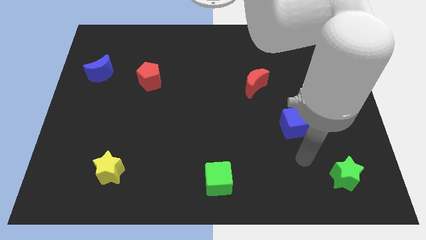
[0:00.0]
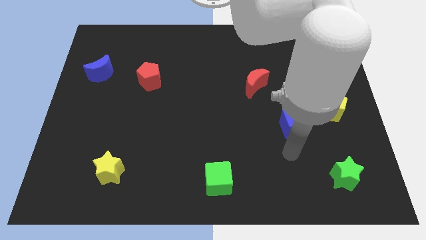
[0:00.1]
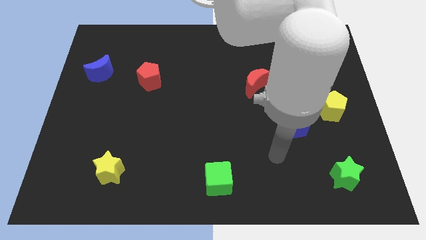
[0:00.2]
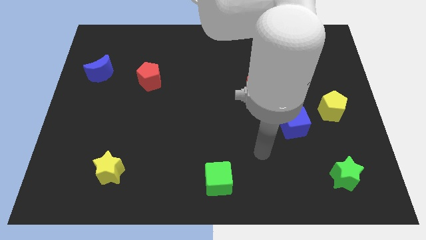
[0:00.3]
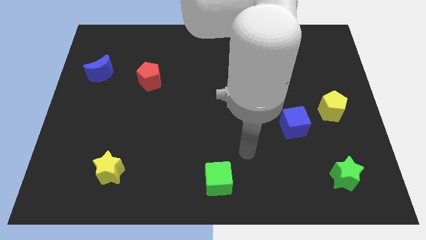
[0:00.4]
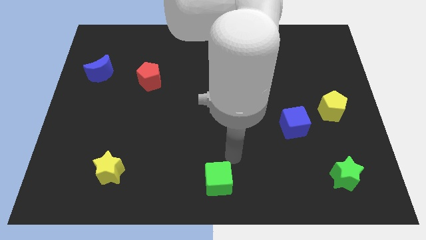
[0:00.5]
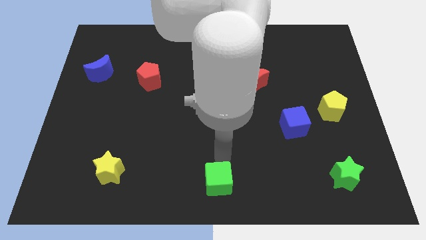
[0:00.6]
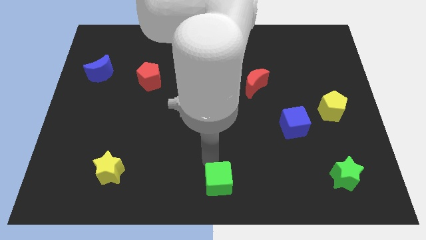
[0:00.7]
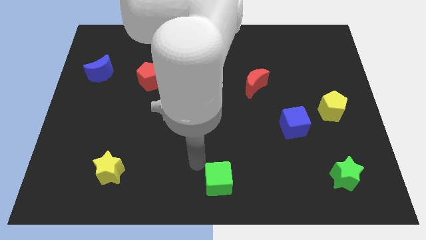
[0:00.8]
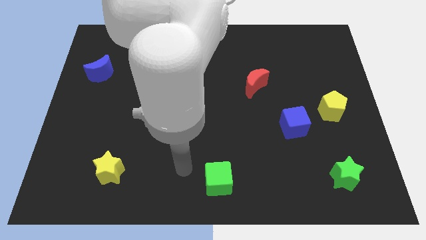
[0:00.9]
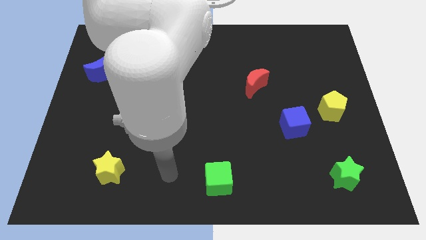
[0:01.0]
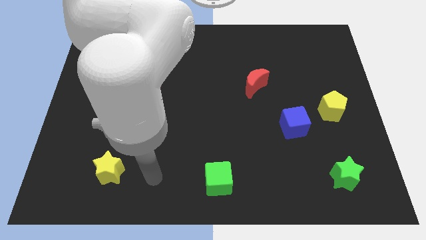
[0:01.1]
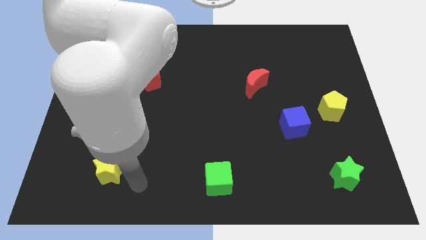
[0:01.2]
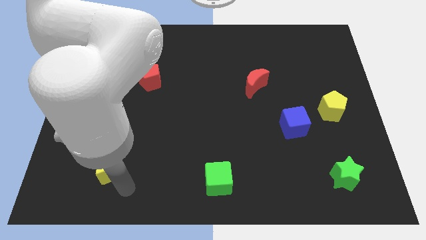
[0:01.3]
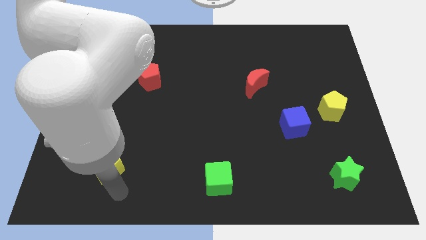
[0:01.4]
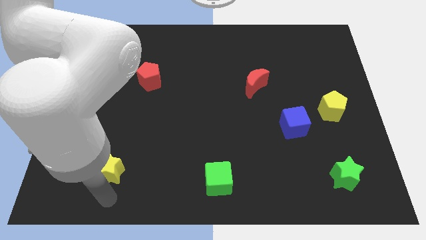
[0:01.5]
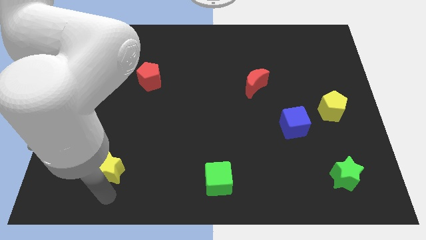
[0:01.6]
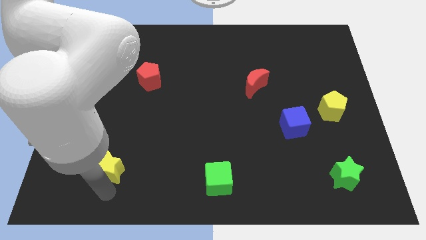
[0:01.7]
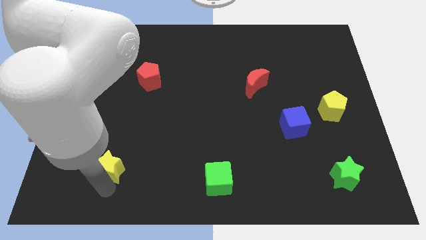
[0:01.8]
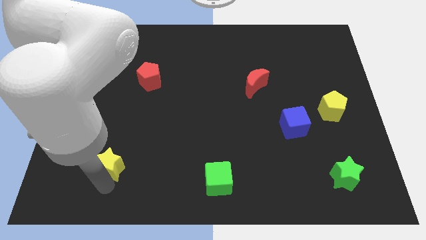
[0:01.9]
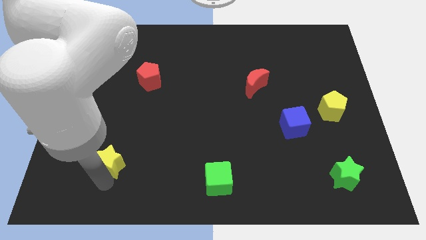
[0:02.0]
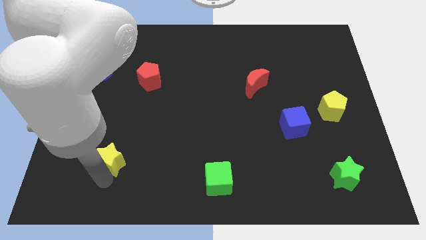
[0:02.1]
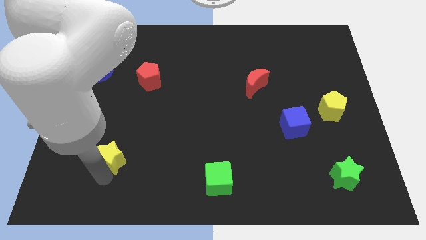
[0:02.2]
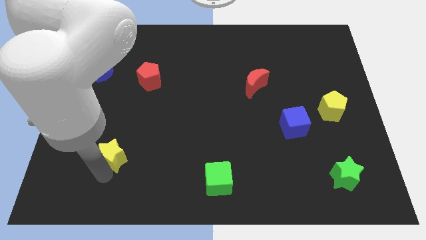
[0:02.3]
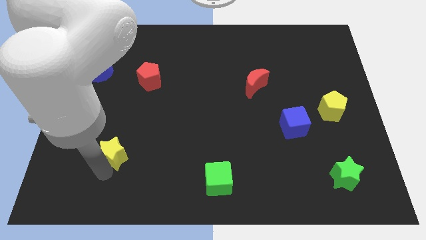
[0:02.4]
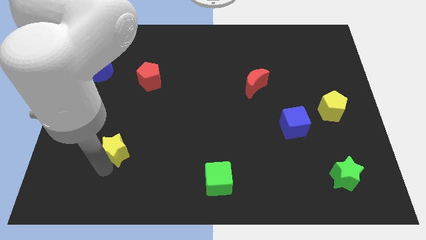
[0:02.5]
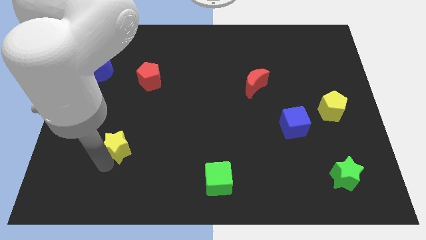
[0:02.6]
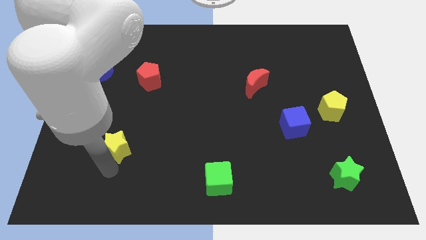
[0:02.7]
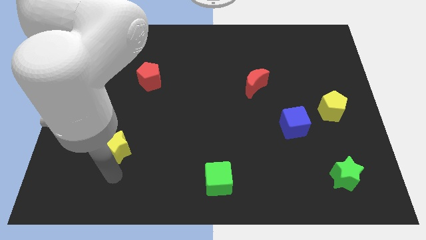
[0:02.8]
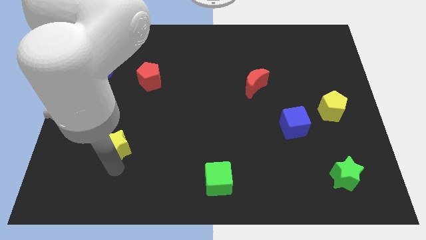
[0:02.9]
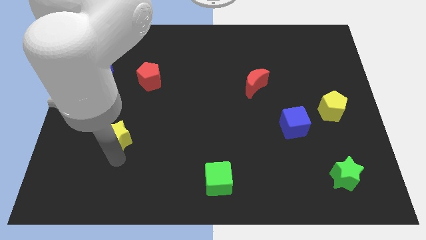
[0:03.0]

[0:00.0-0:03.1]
push the yellow star up a bit

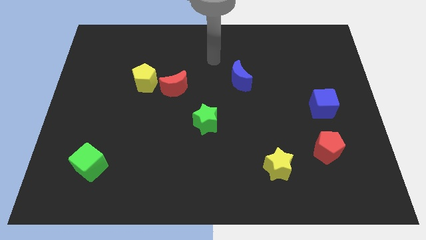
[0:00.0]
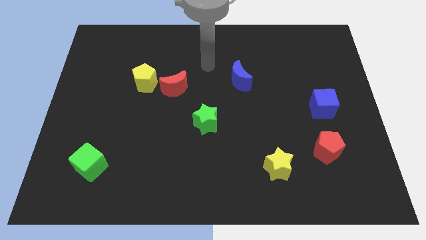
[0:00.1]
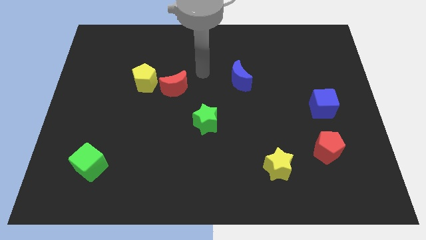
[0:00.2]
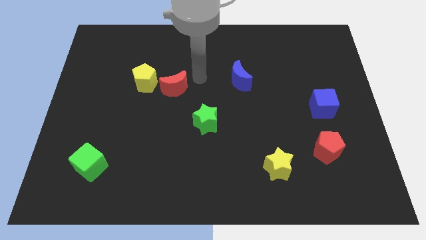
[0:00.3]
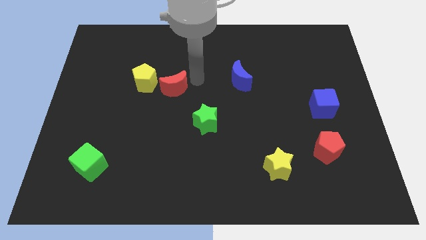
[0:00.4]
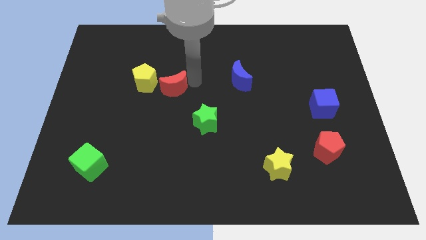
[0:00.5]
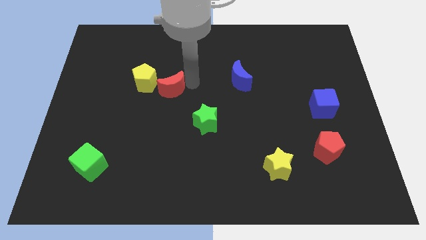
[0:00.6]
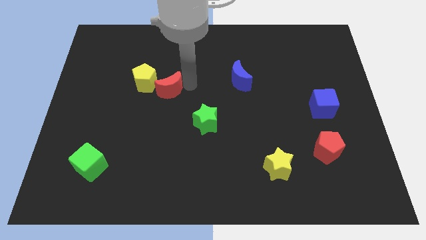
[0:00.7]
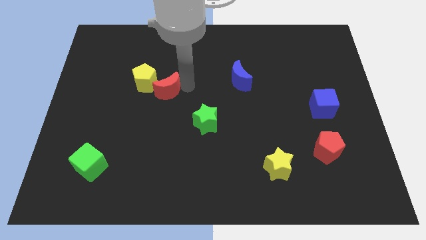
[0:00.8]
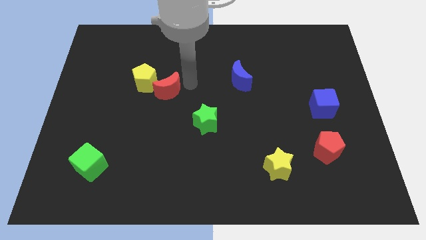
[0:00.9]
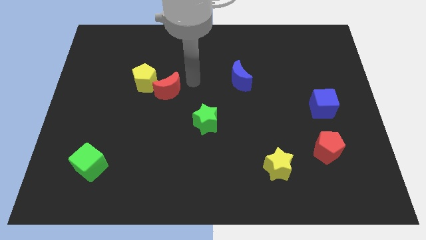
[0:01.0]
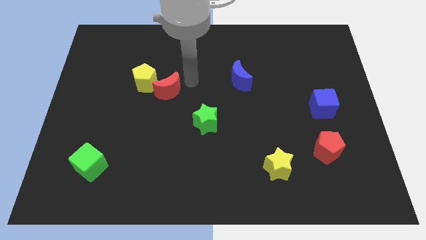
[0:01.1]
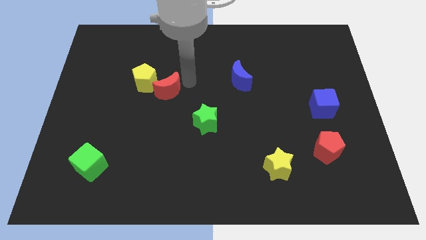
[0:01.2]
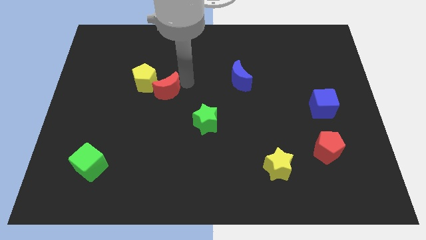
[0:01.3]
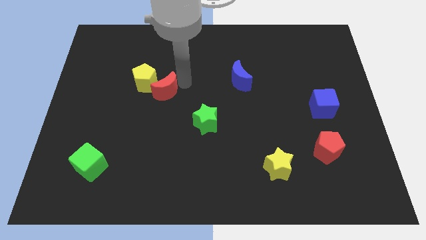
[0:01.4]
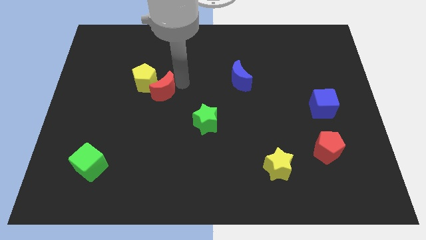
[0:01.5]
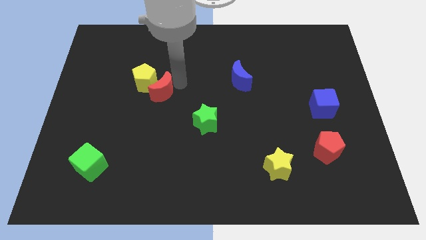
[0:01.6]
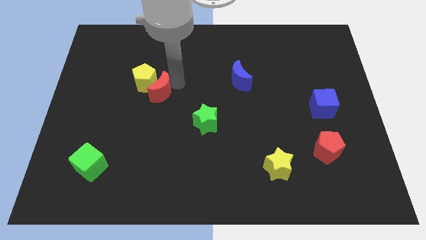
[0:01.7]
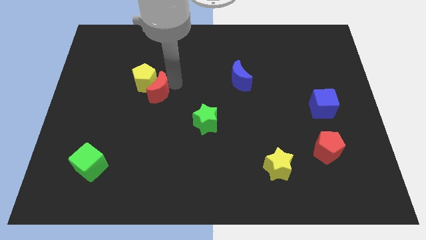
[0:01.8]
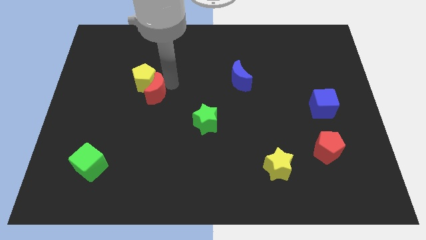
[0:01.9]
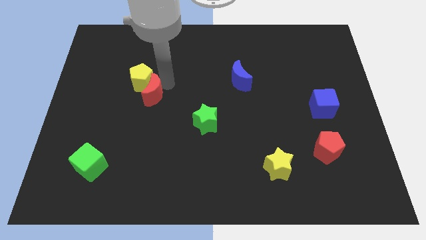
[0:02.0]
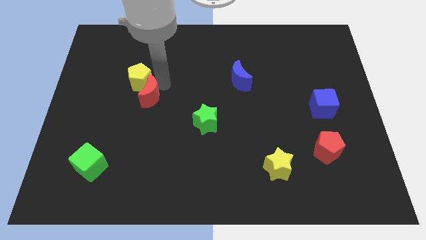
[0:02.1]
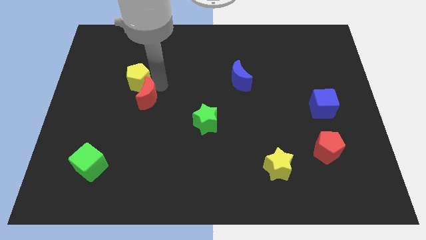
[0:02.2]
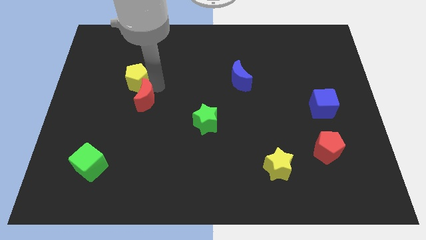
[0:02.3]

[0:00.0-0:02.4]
slightly push the red moon down and left

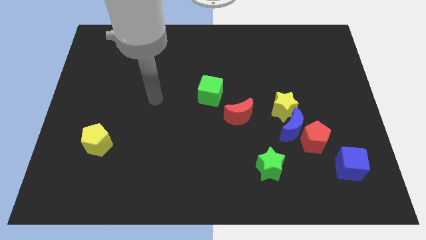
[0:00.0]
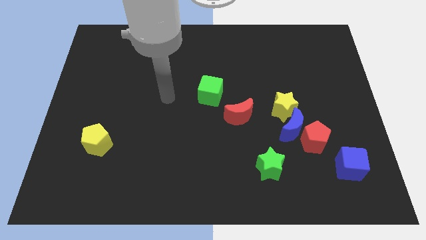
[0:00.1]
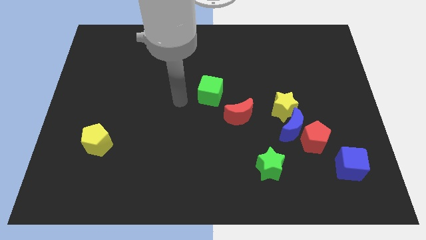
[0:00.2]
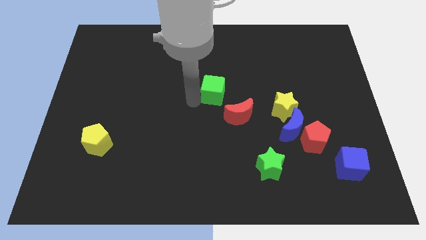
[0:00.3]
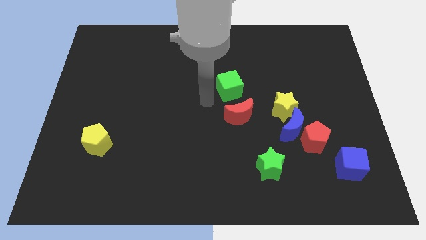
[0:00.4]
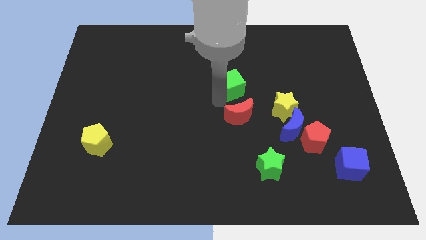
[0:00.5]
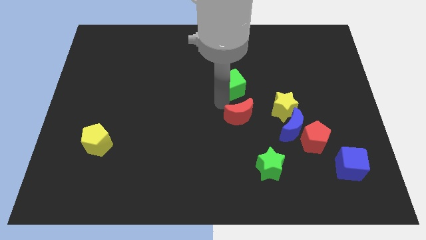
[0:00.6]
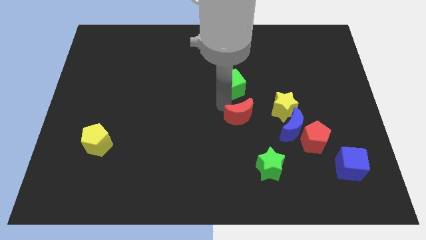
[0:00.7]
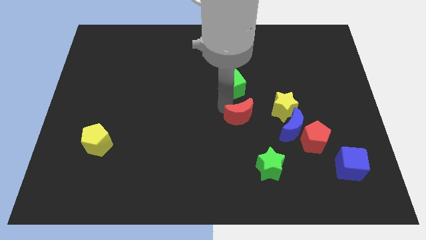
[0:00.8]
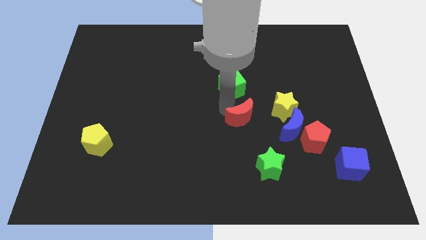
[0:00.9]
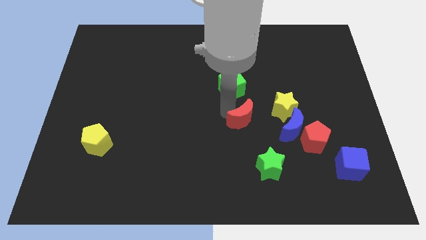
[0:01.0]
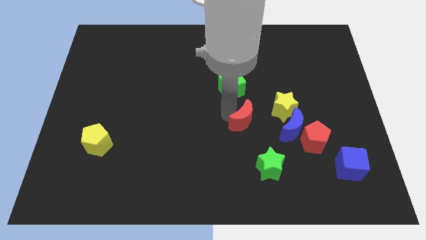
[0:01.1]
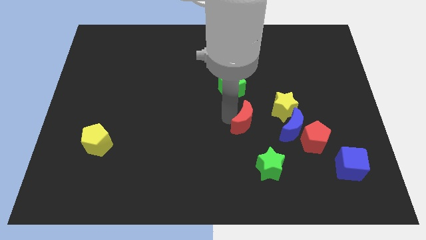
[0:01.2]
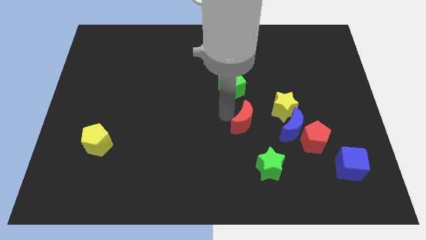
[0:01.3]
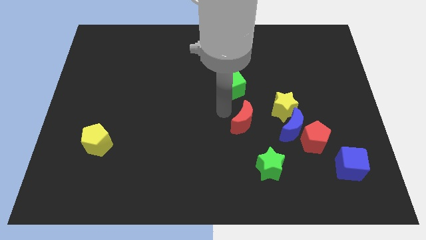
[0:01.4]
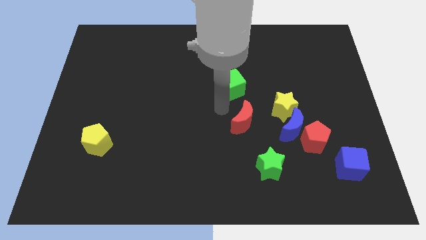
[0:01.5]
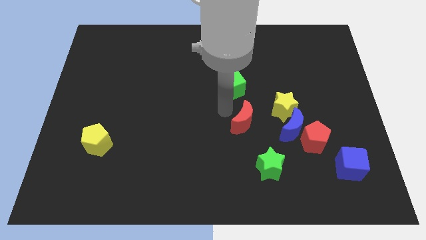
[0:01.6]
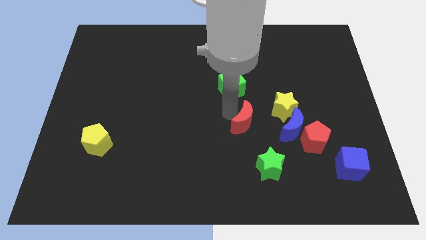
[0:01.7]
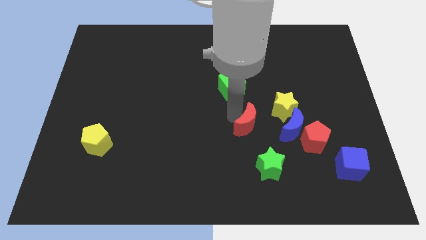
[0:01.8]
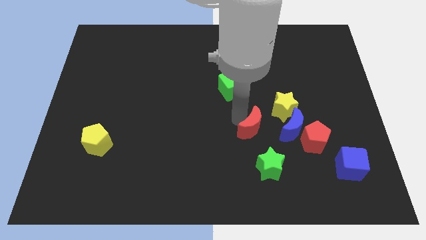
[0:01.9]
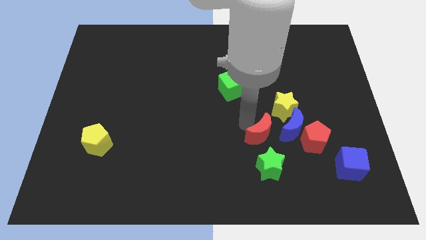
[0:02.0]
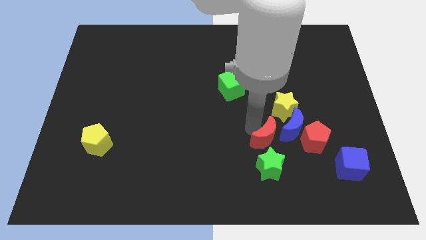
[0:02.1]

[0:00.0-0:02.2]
slide the red moon a bit down and right
